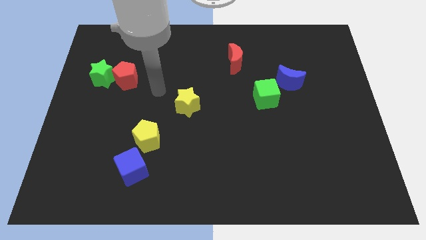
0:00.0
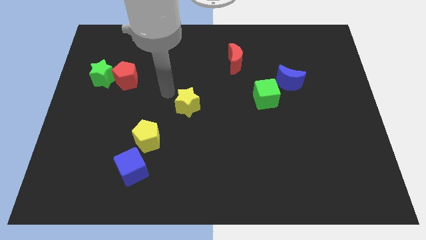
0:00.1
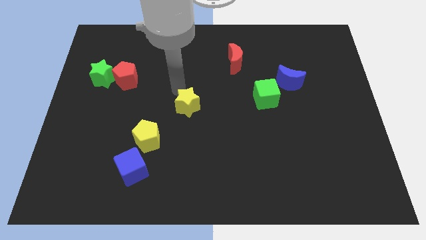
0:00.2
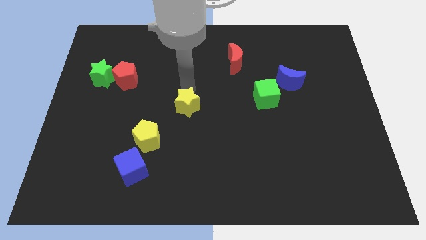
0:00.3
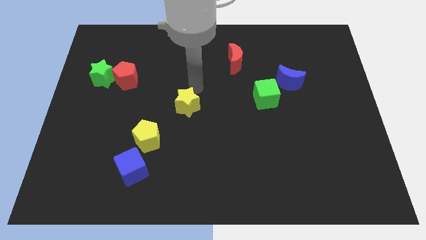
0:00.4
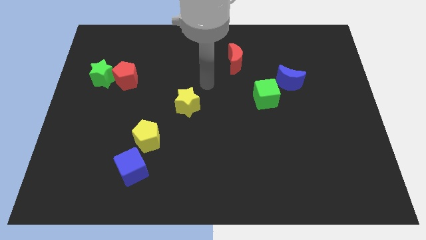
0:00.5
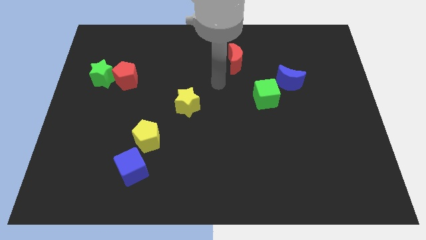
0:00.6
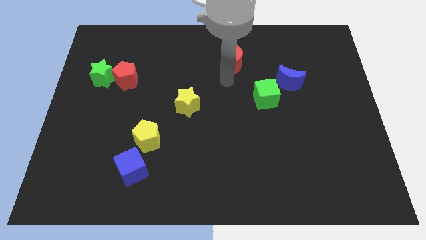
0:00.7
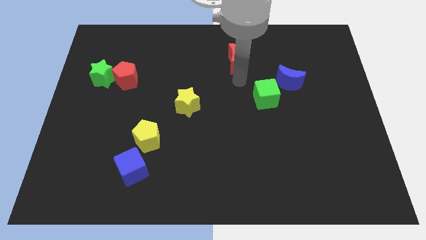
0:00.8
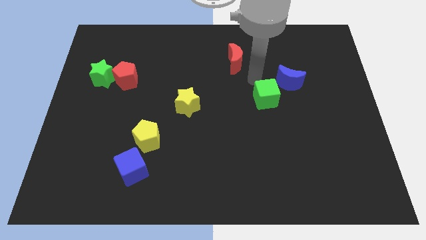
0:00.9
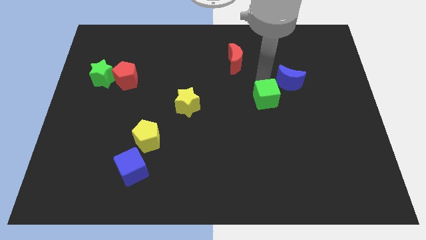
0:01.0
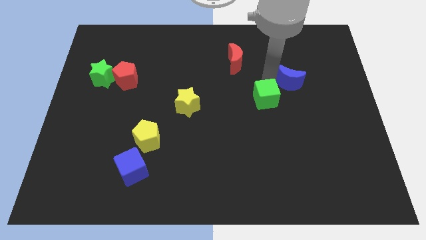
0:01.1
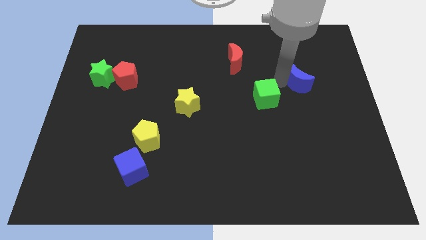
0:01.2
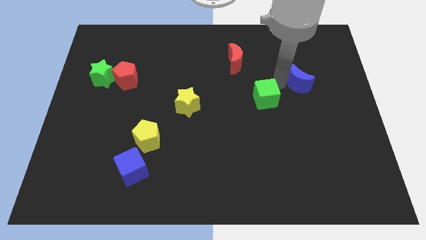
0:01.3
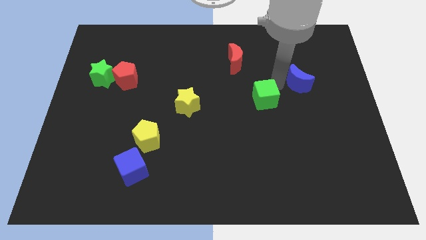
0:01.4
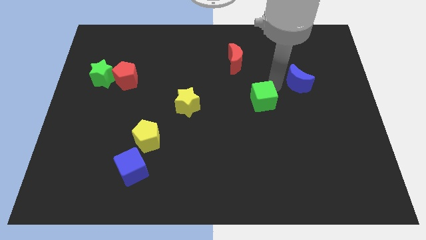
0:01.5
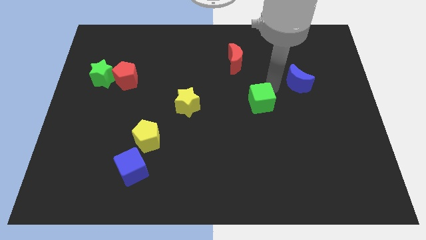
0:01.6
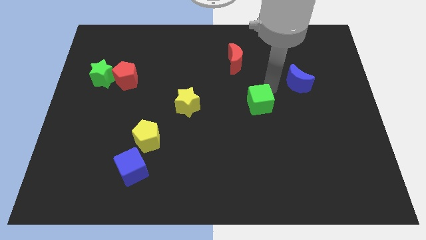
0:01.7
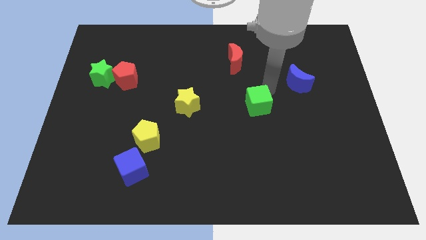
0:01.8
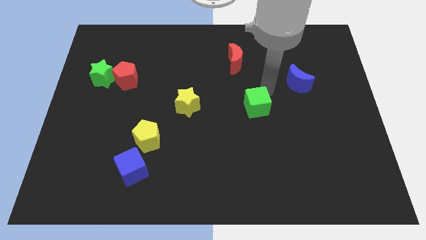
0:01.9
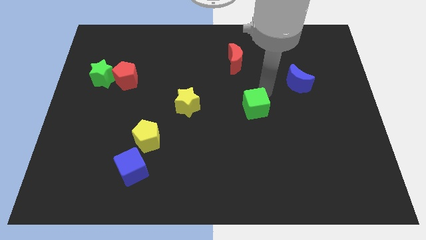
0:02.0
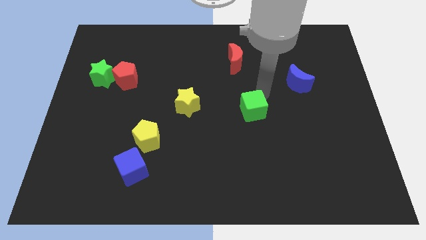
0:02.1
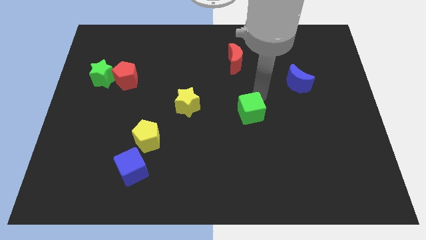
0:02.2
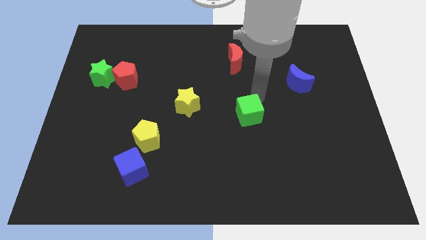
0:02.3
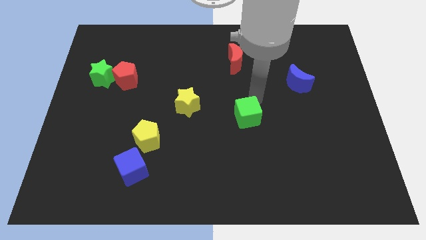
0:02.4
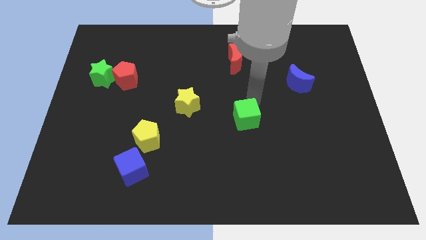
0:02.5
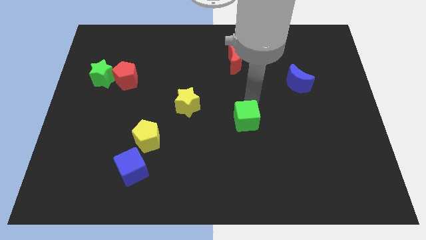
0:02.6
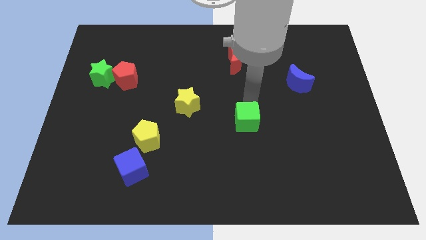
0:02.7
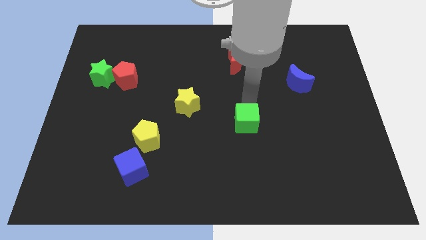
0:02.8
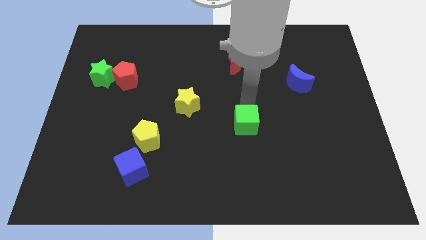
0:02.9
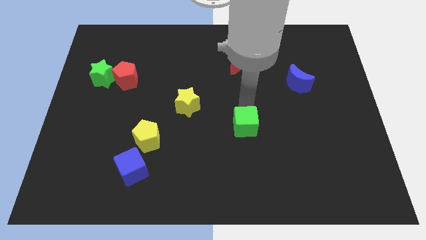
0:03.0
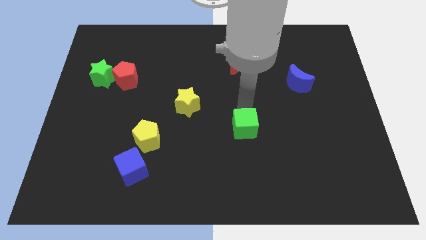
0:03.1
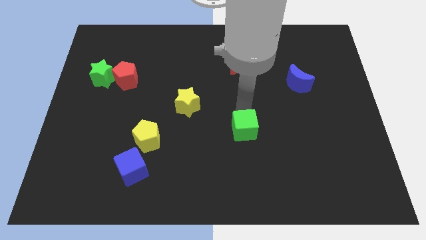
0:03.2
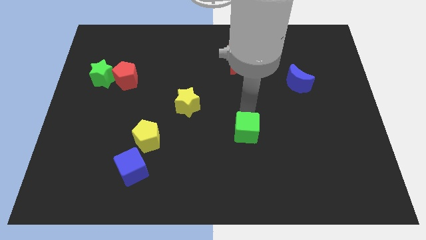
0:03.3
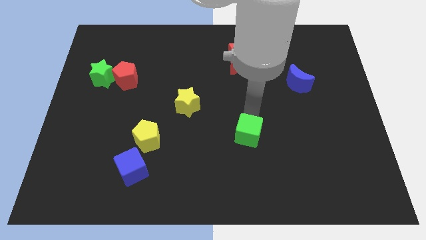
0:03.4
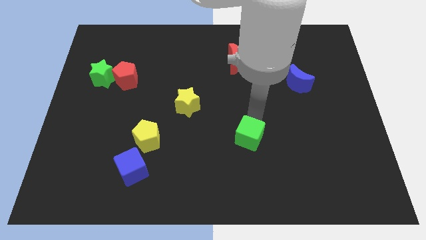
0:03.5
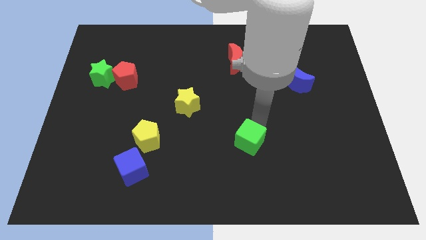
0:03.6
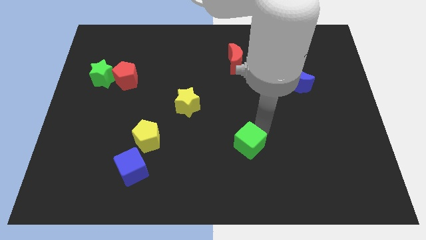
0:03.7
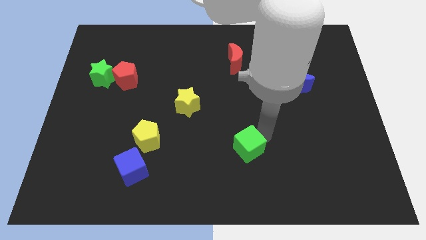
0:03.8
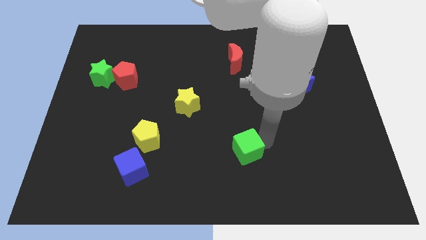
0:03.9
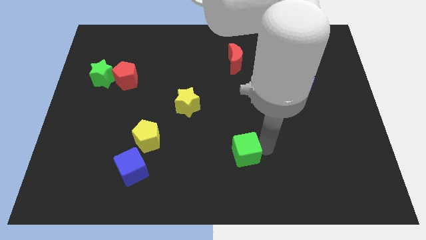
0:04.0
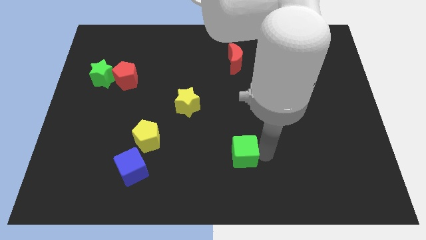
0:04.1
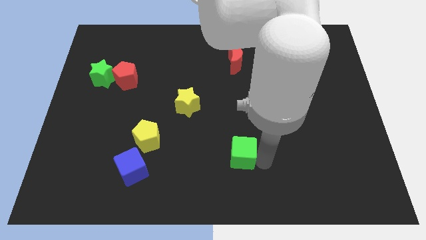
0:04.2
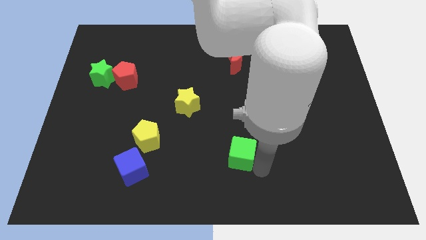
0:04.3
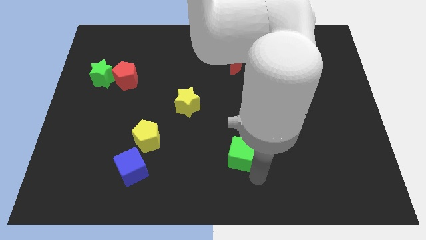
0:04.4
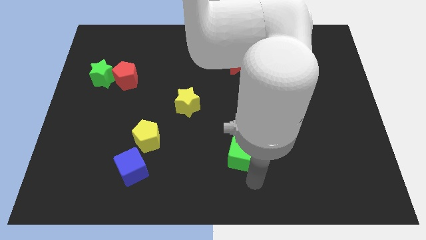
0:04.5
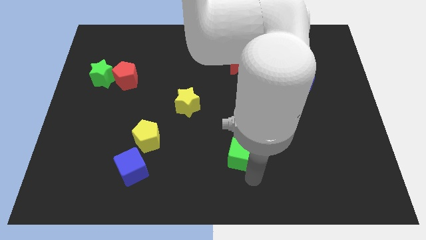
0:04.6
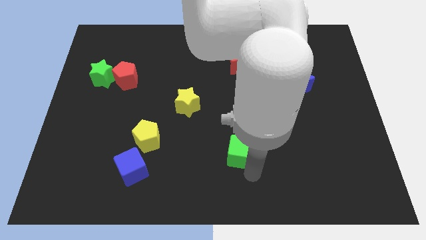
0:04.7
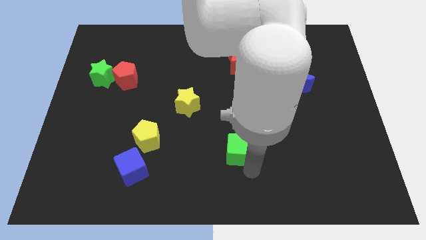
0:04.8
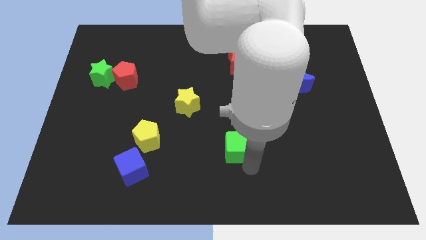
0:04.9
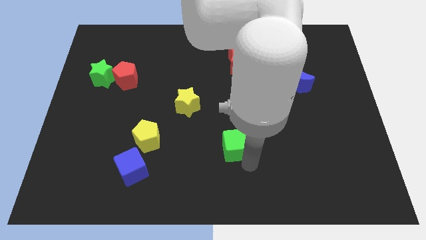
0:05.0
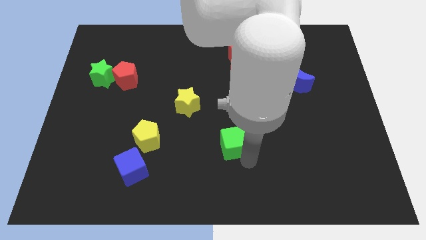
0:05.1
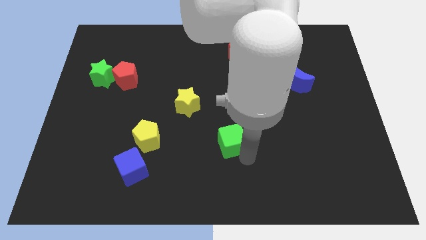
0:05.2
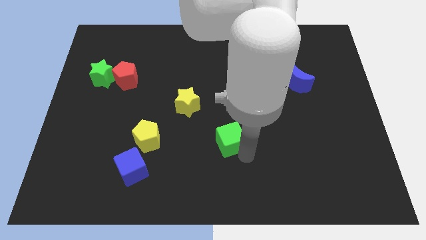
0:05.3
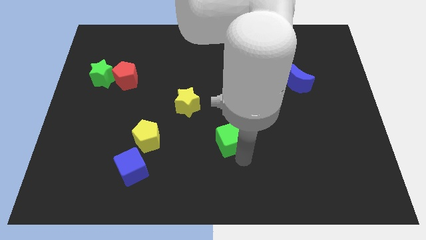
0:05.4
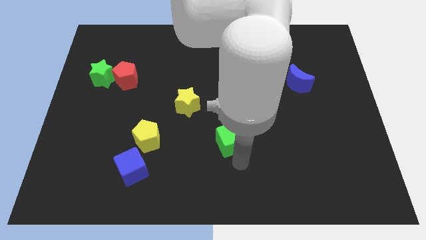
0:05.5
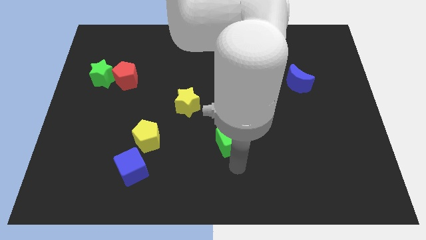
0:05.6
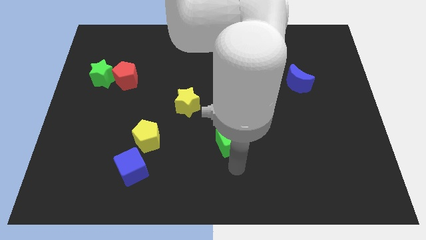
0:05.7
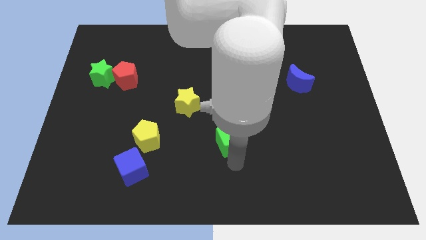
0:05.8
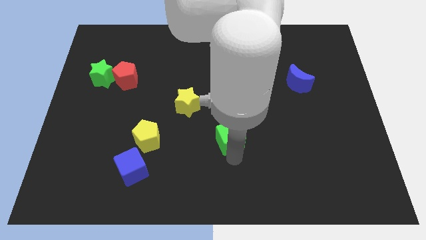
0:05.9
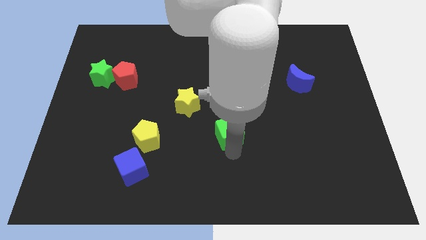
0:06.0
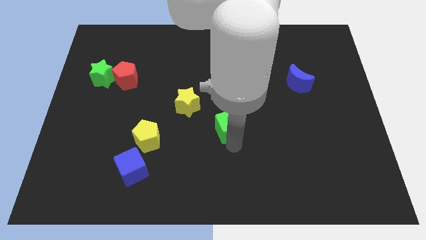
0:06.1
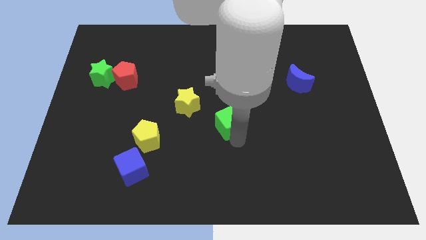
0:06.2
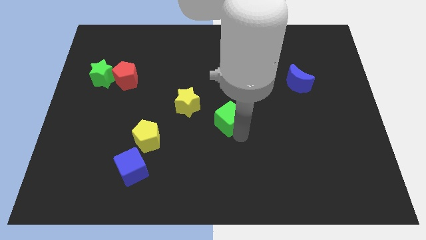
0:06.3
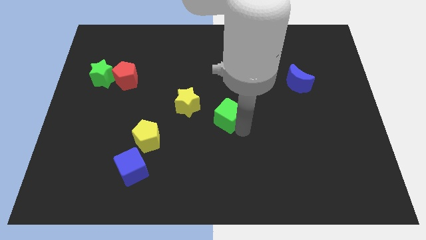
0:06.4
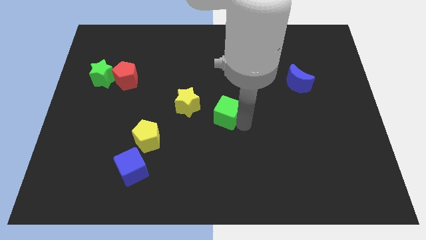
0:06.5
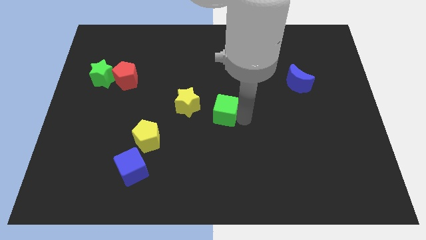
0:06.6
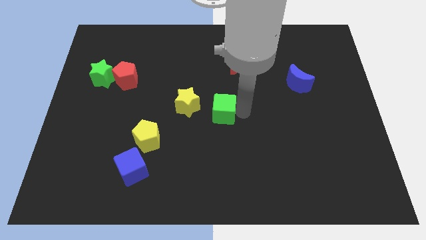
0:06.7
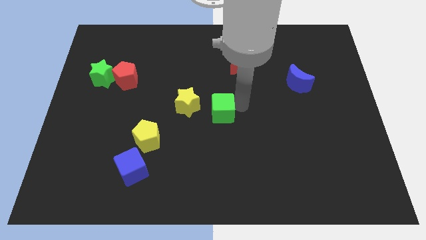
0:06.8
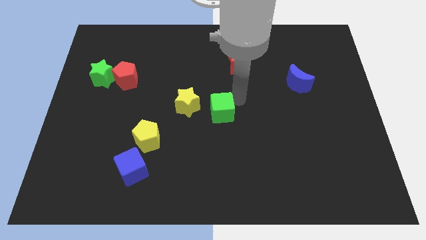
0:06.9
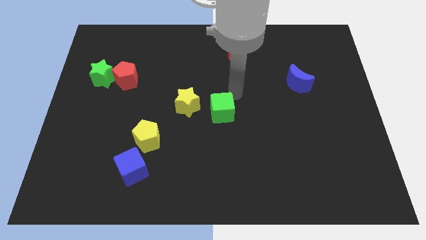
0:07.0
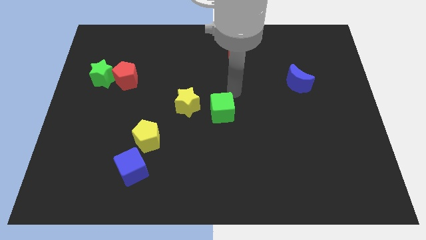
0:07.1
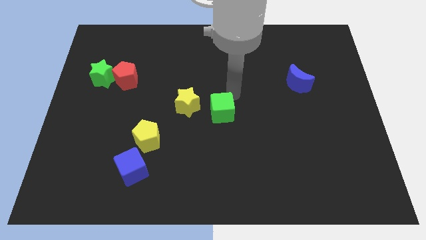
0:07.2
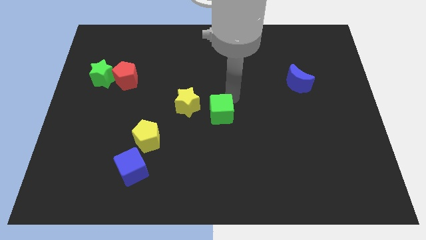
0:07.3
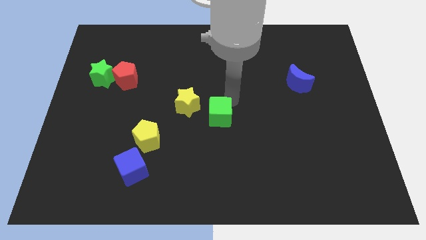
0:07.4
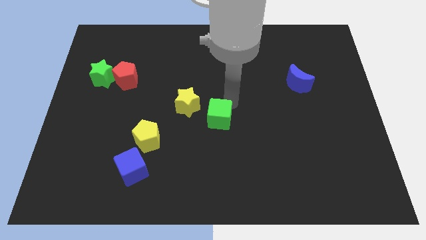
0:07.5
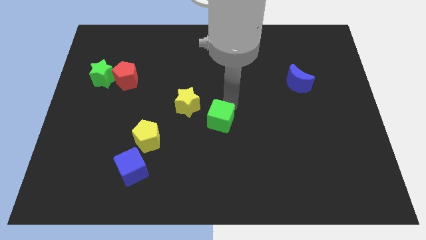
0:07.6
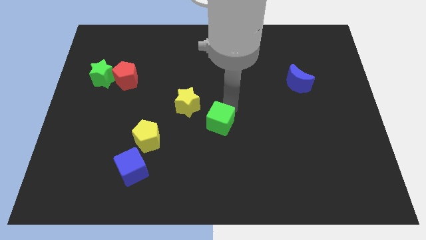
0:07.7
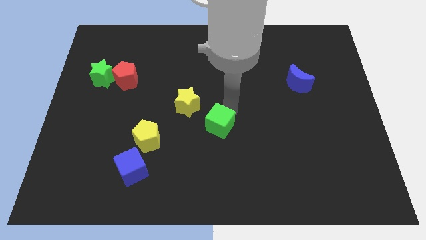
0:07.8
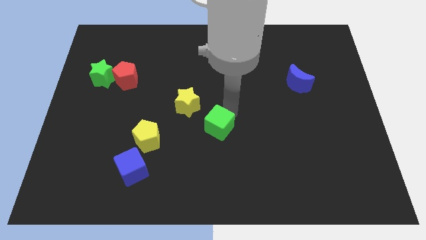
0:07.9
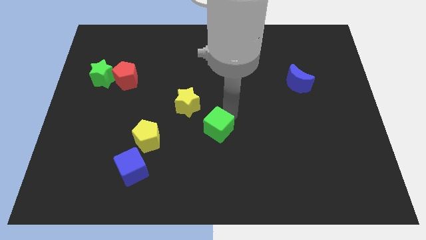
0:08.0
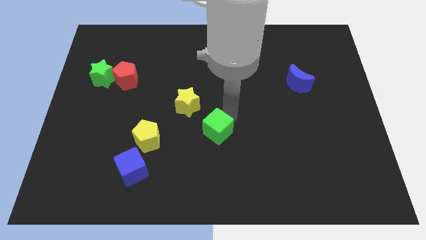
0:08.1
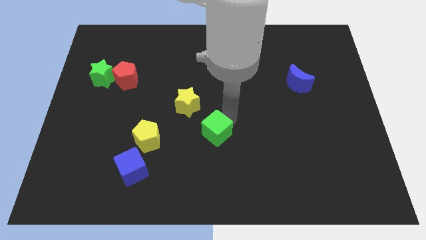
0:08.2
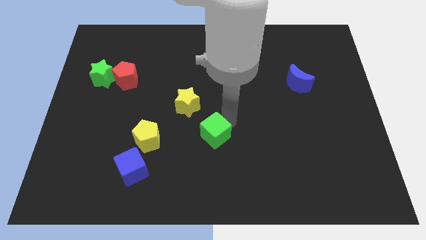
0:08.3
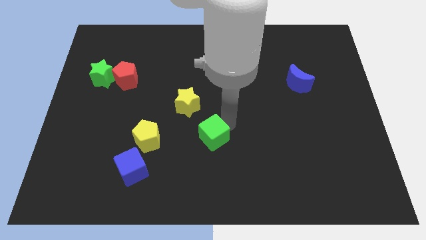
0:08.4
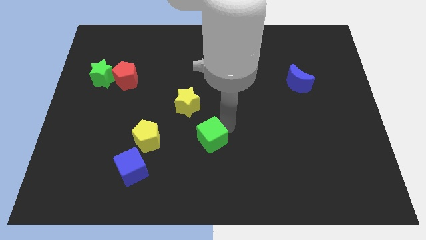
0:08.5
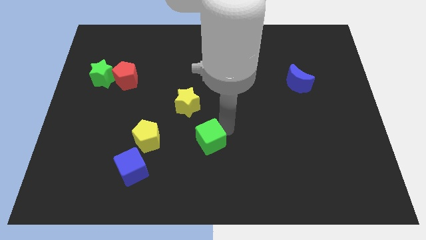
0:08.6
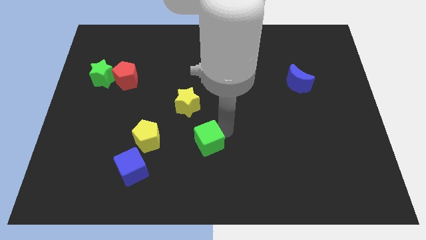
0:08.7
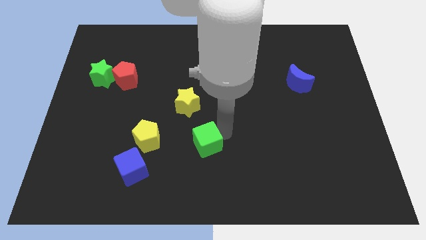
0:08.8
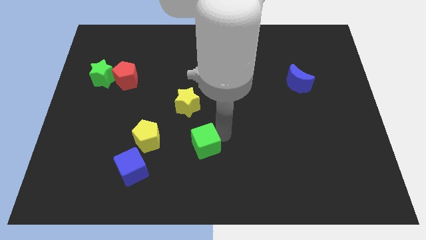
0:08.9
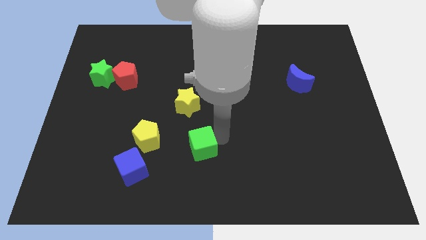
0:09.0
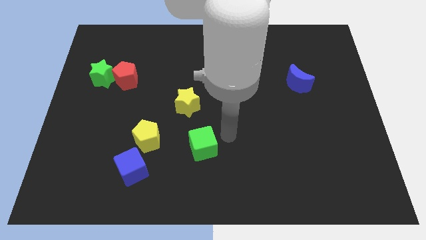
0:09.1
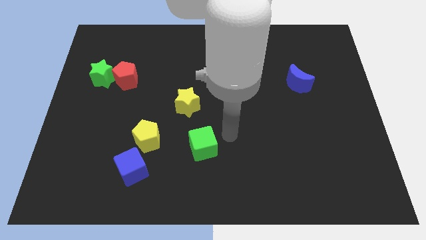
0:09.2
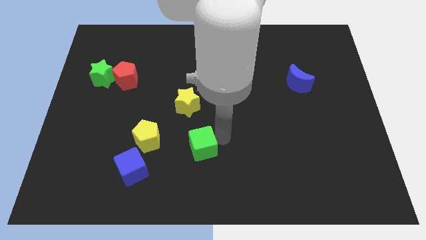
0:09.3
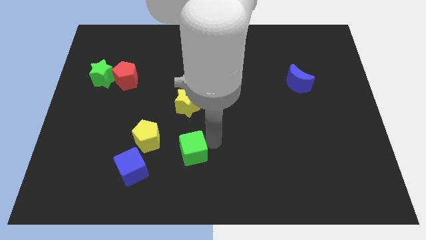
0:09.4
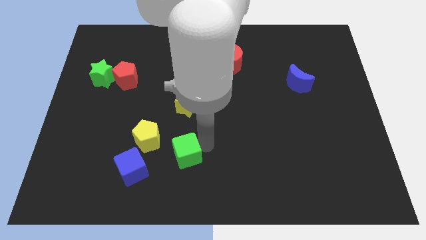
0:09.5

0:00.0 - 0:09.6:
push the green cube to the bottom right side of the yellow pentagon
